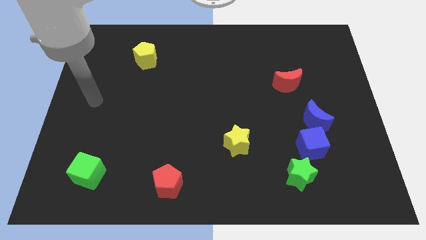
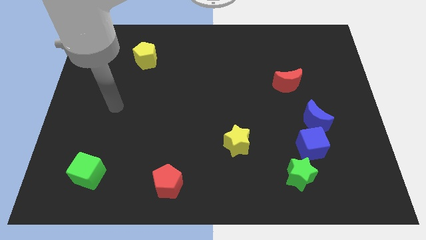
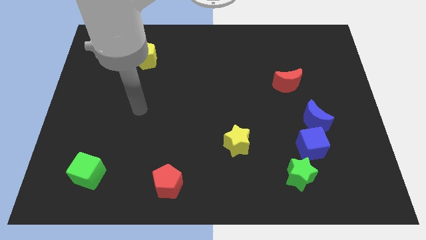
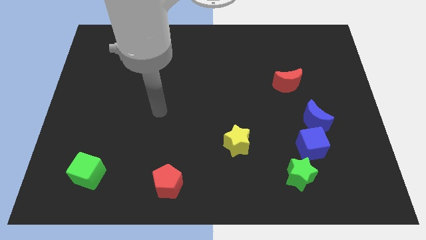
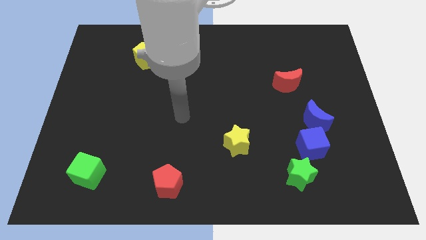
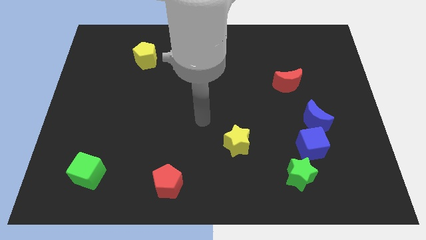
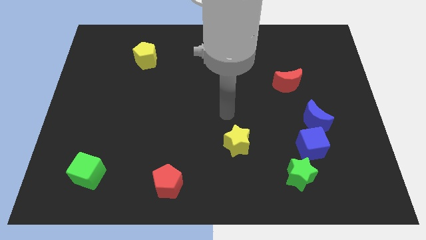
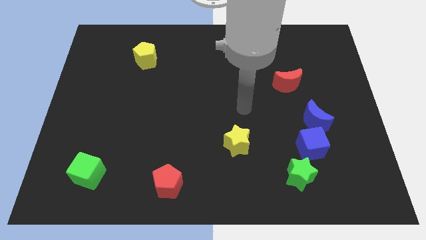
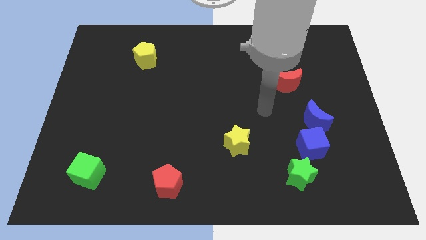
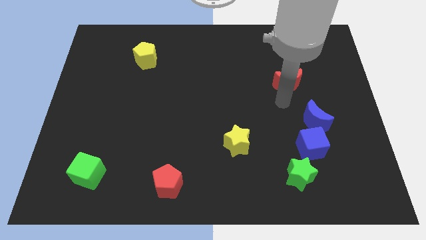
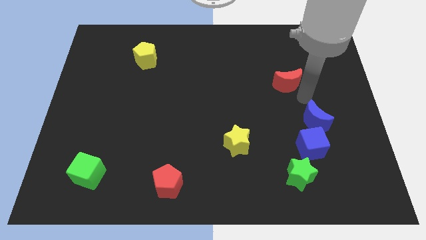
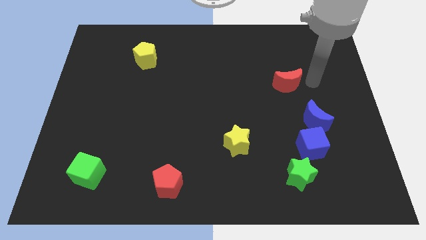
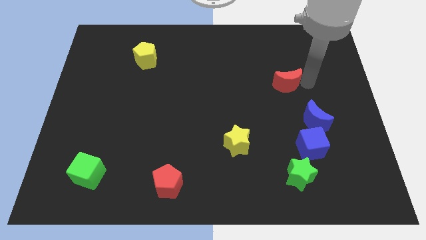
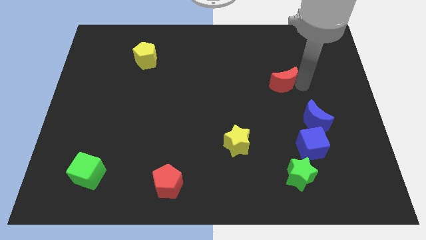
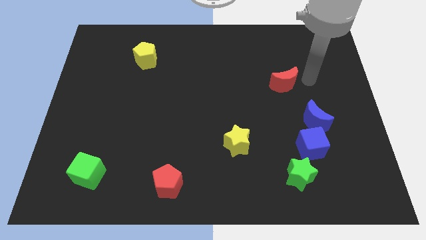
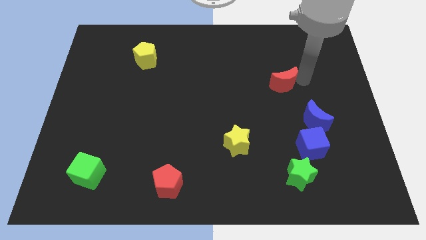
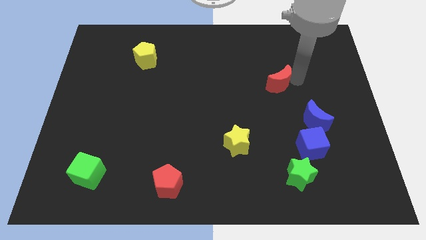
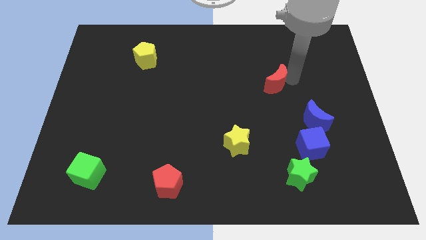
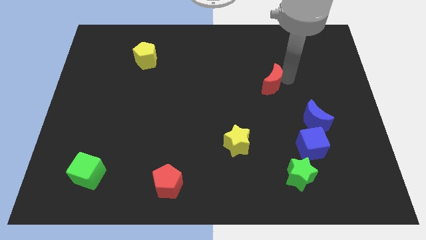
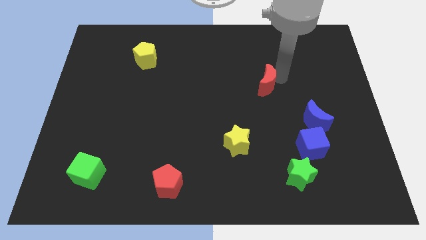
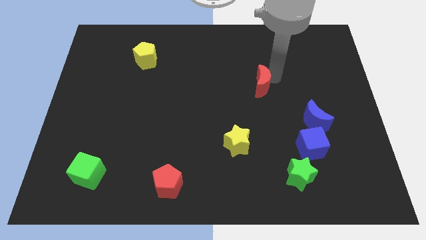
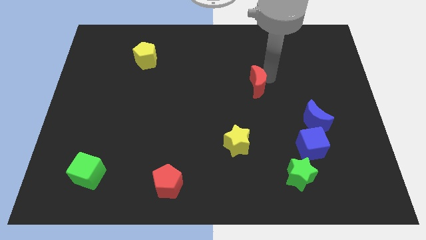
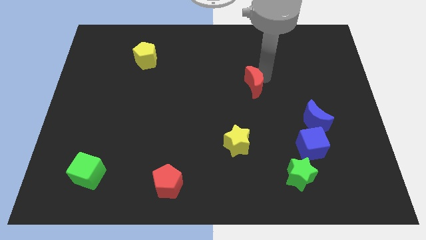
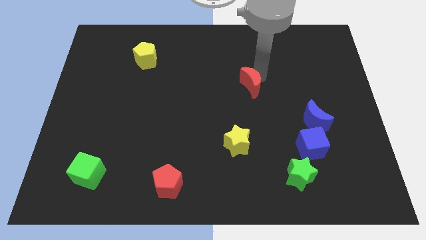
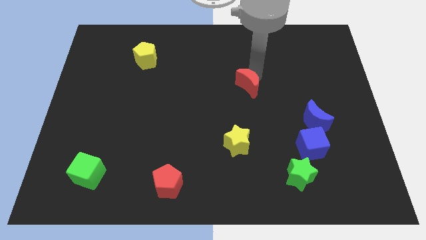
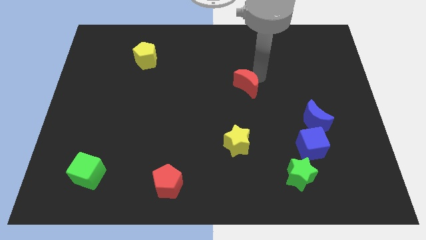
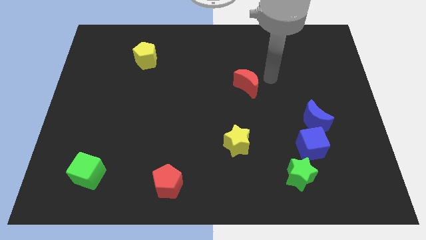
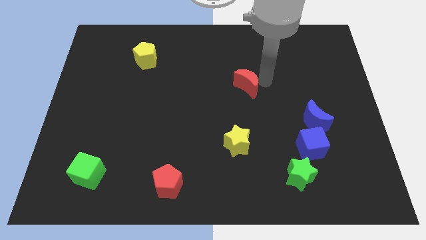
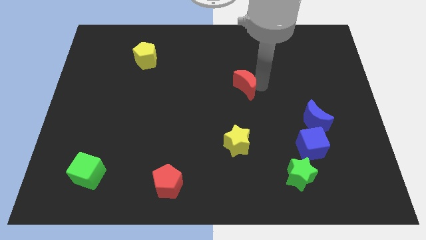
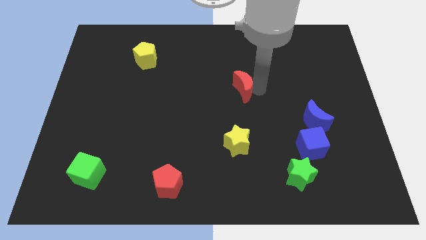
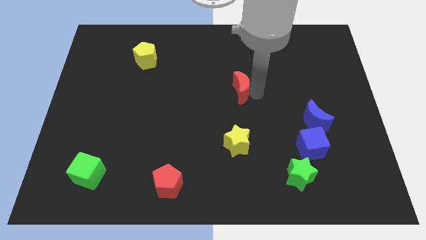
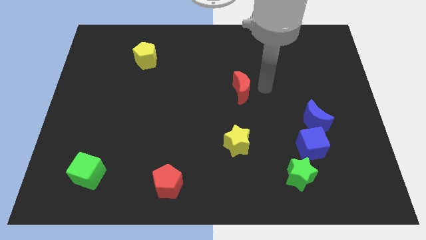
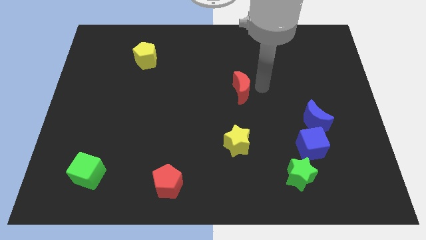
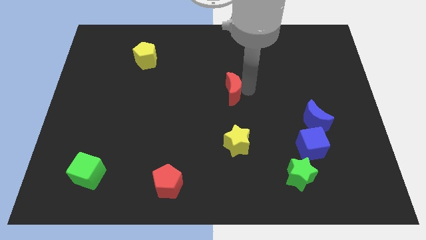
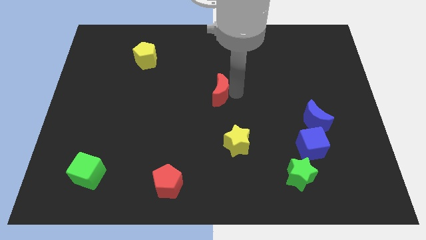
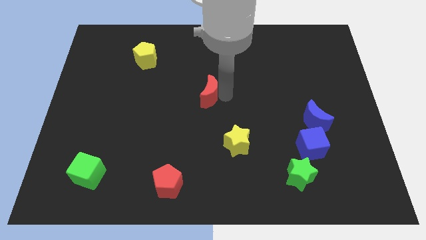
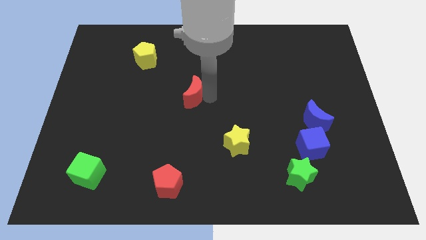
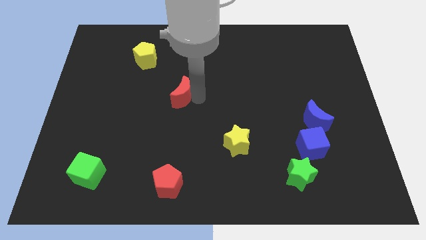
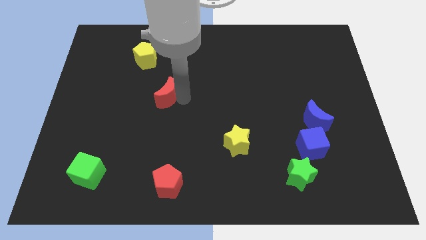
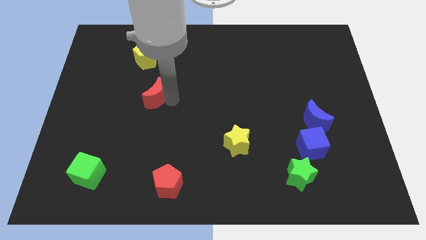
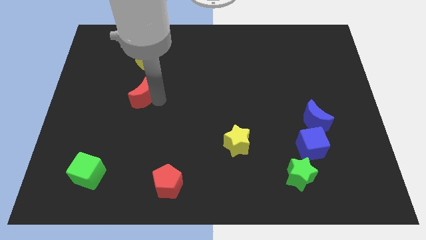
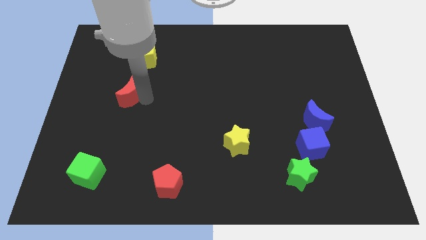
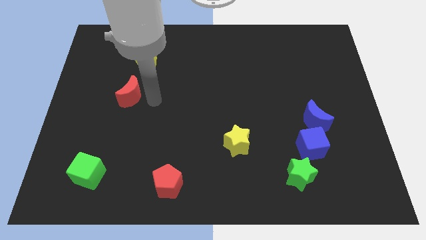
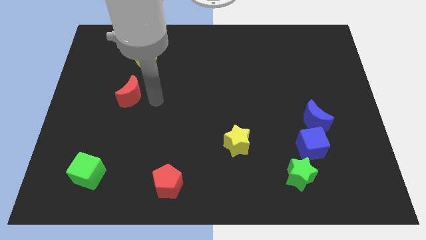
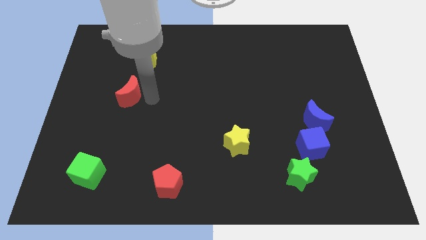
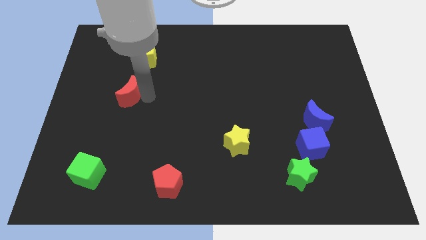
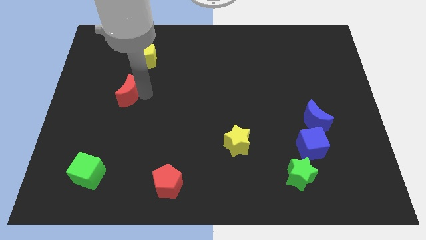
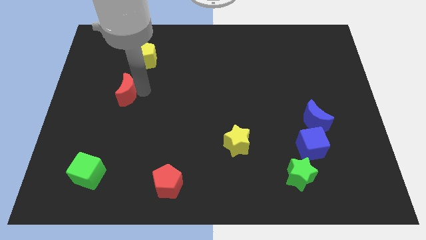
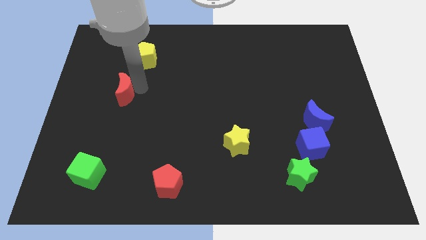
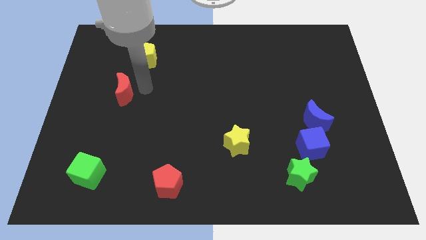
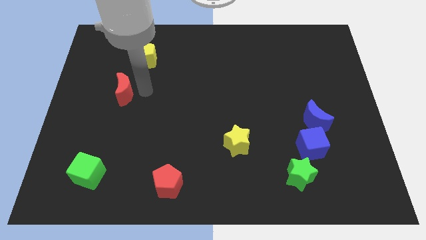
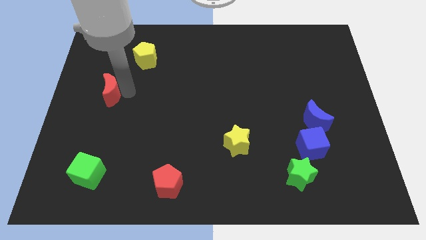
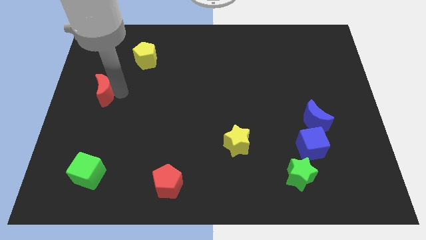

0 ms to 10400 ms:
slide the red moon to the center left

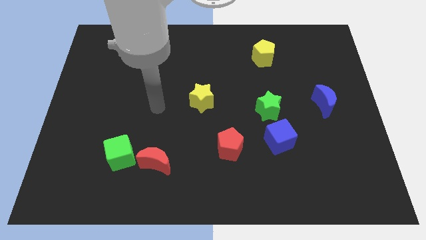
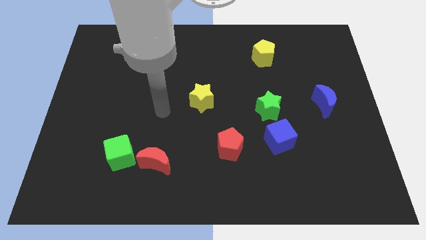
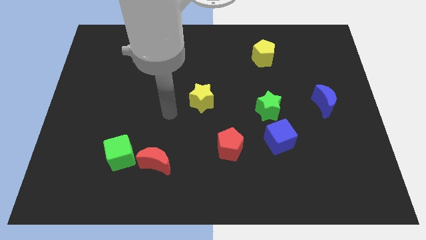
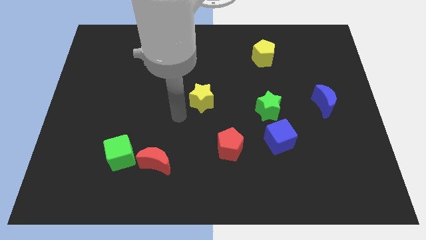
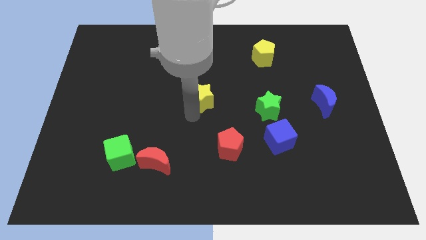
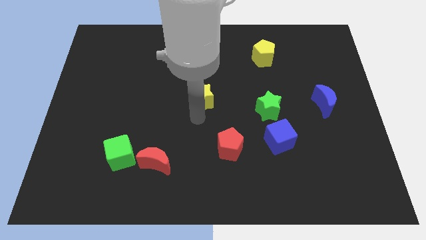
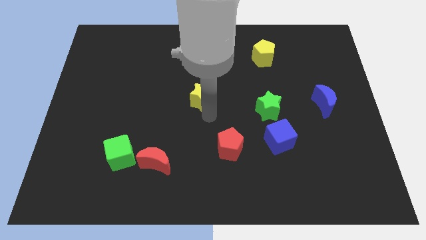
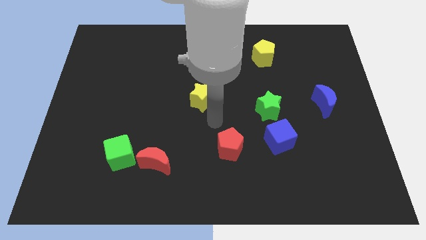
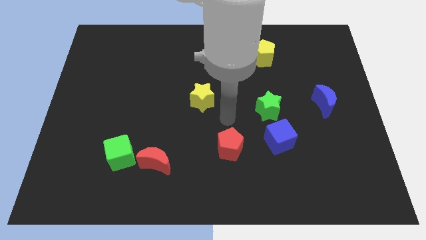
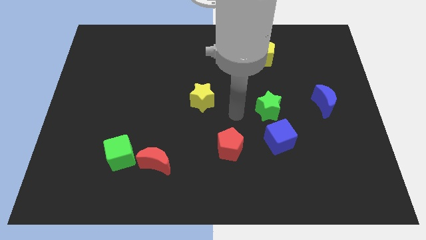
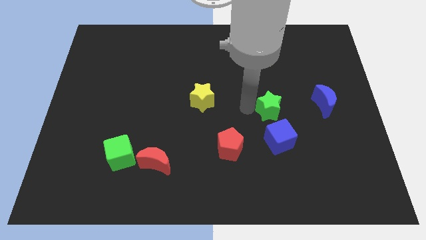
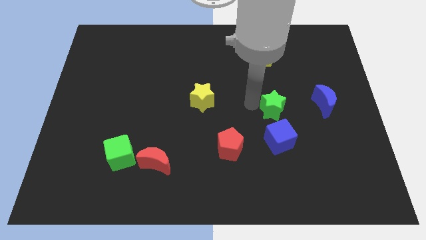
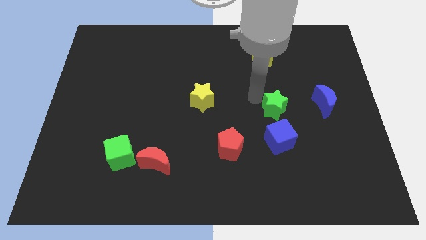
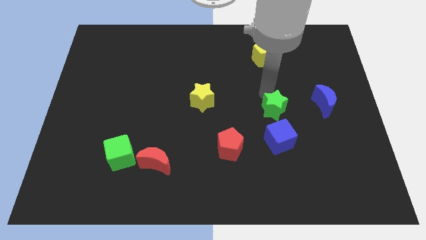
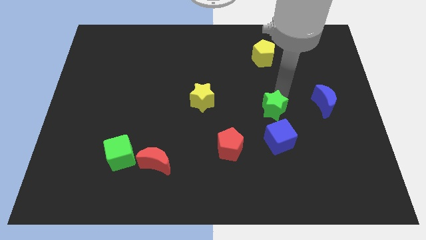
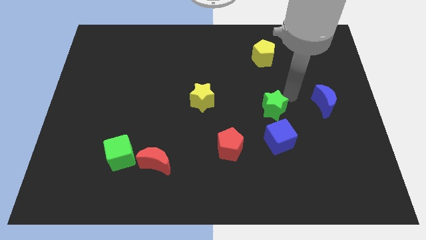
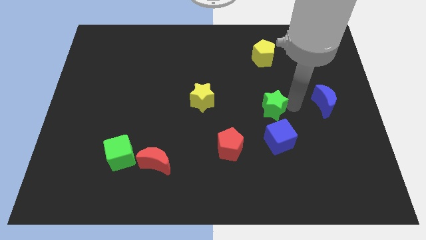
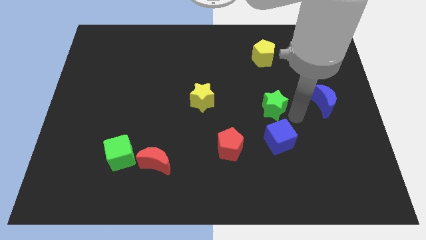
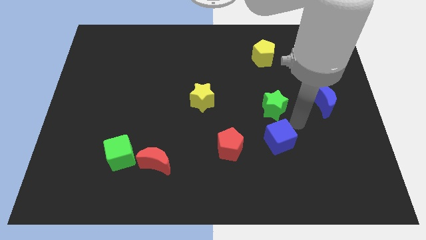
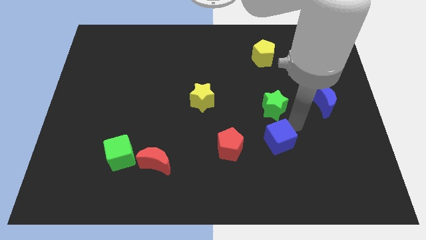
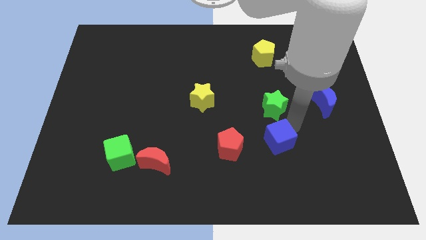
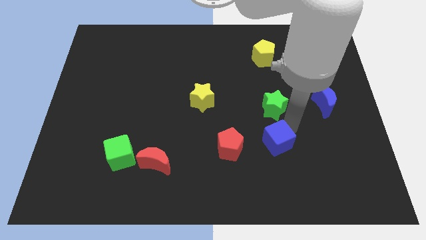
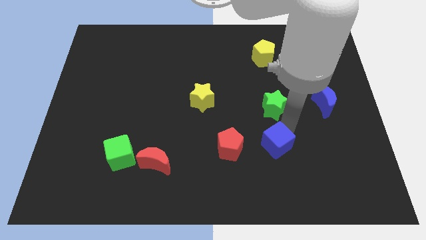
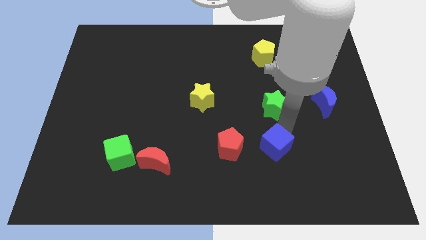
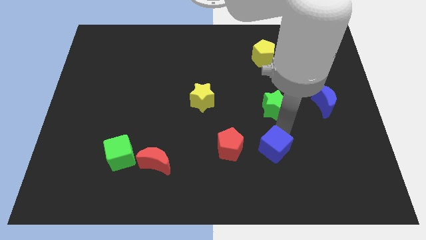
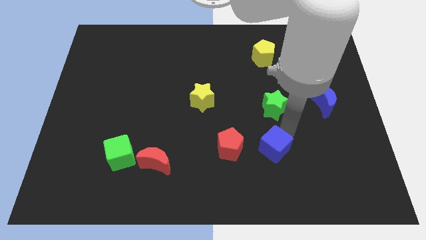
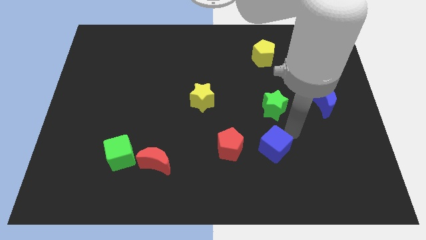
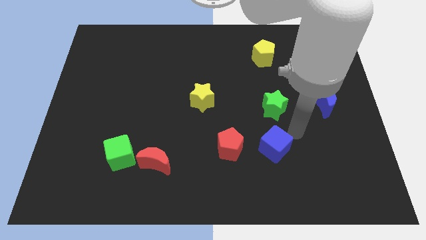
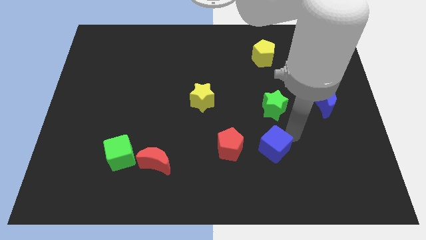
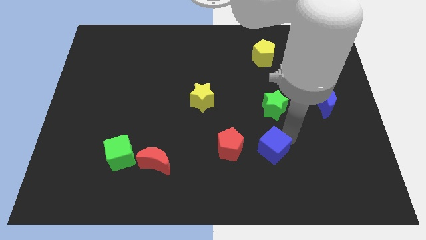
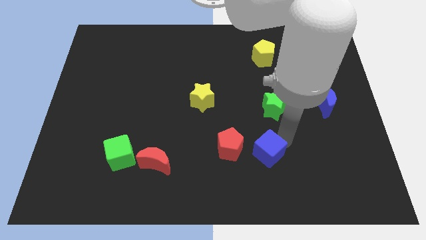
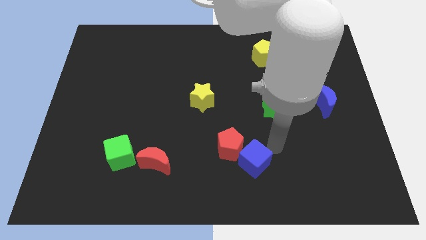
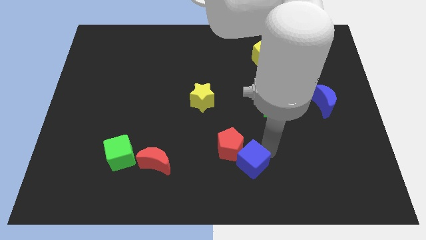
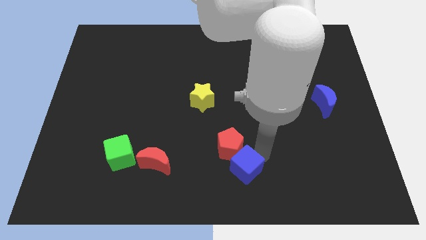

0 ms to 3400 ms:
slide the blue cube to the bottom side
